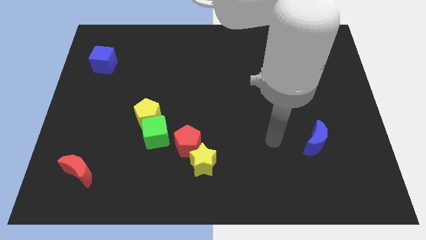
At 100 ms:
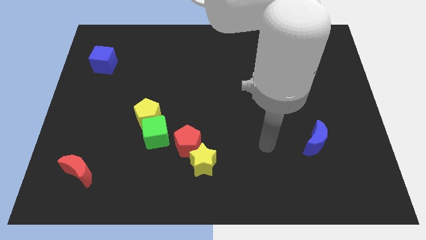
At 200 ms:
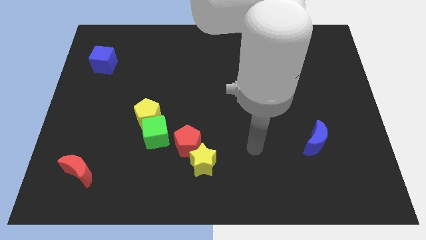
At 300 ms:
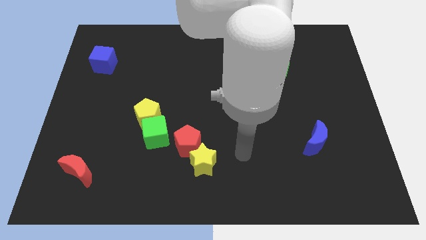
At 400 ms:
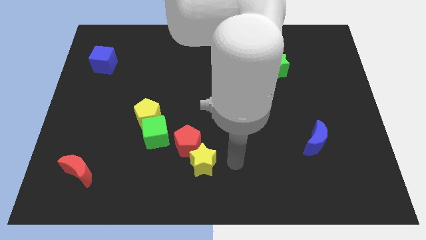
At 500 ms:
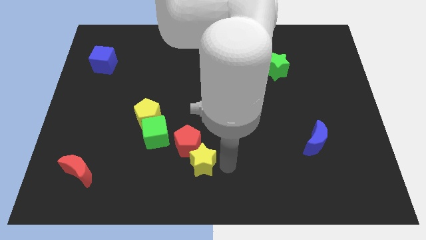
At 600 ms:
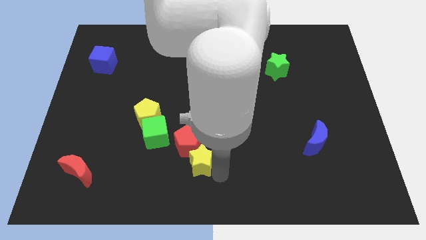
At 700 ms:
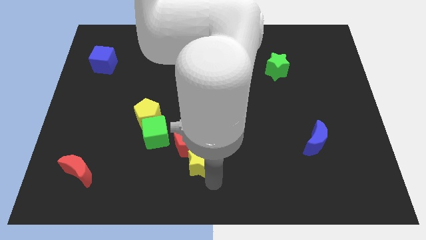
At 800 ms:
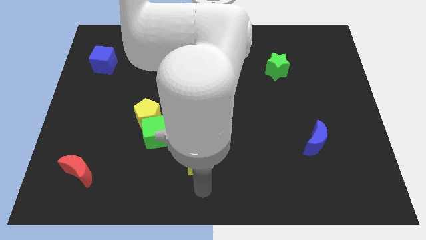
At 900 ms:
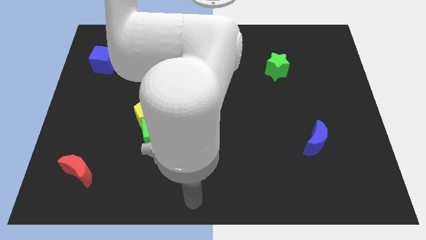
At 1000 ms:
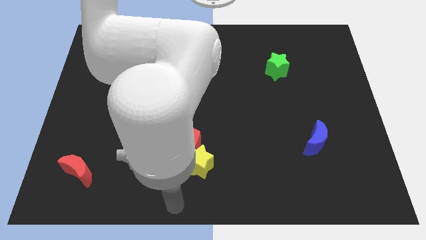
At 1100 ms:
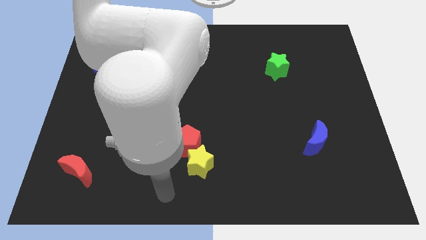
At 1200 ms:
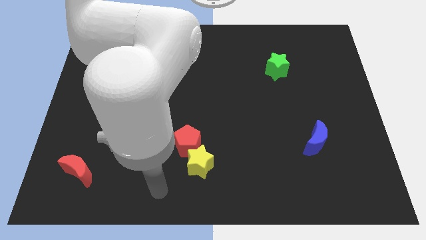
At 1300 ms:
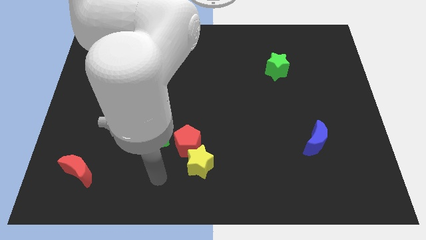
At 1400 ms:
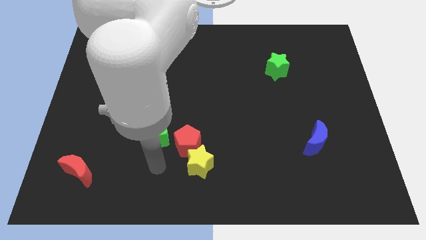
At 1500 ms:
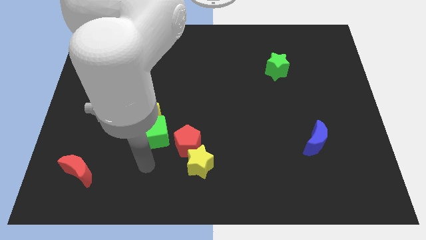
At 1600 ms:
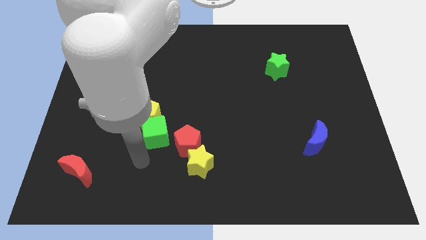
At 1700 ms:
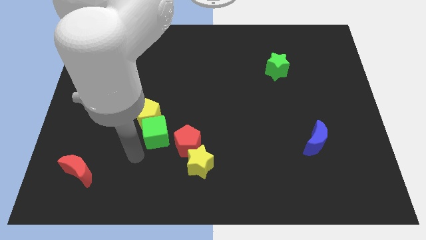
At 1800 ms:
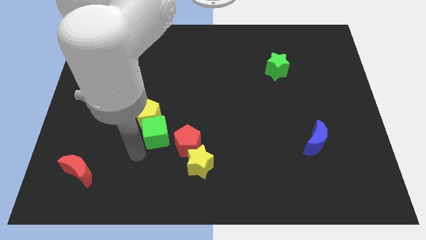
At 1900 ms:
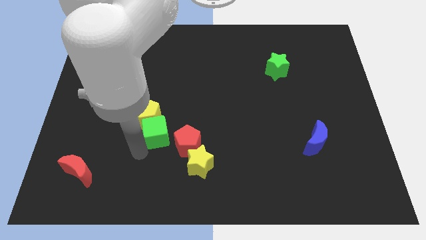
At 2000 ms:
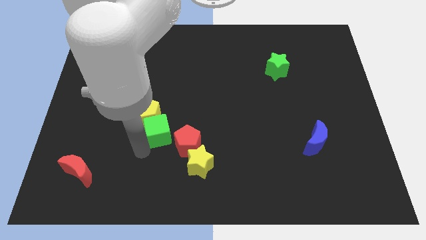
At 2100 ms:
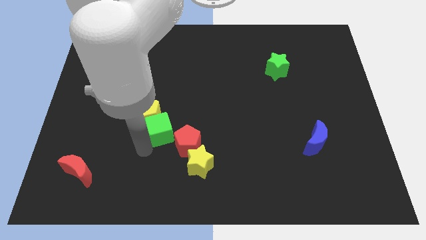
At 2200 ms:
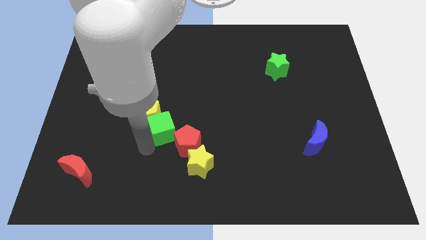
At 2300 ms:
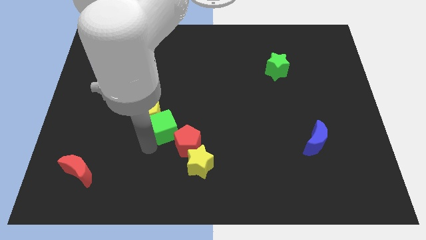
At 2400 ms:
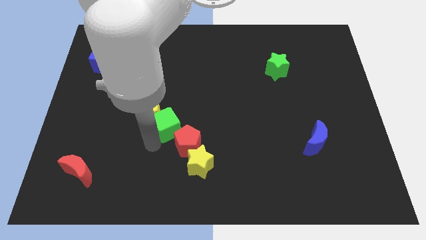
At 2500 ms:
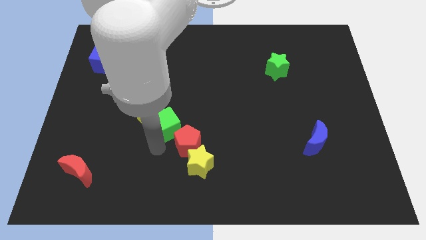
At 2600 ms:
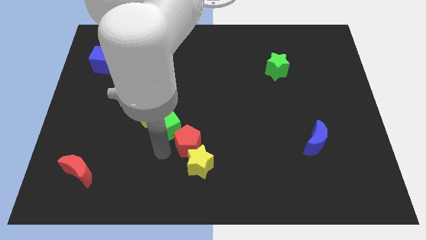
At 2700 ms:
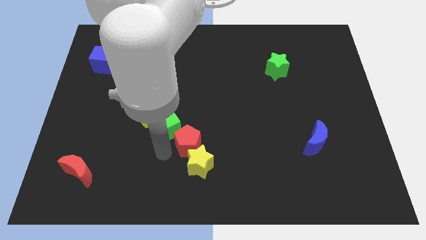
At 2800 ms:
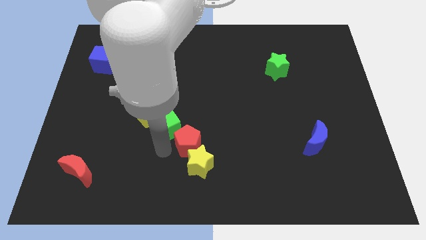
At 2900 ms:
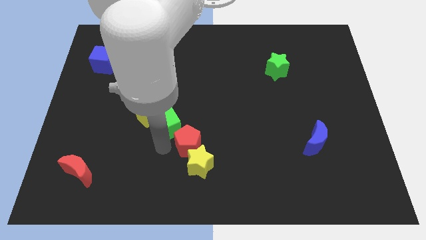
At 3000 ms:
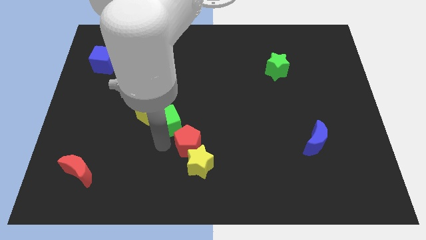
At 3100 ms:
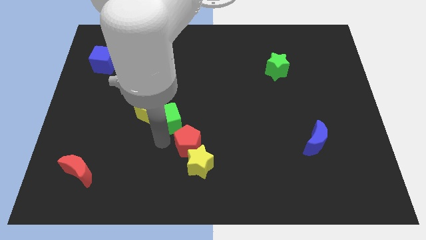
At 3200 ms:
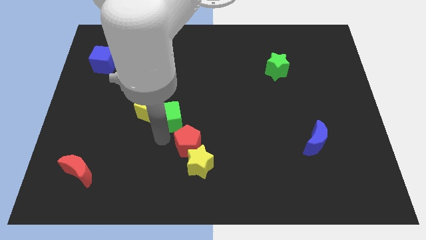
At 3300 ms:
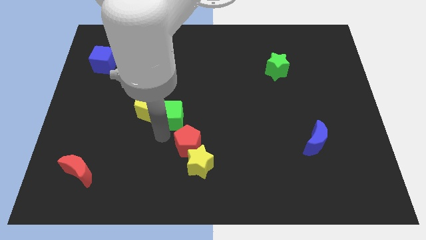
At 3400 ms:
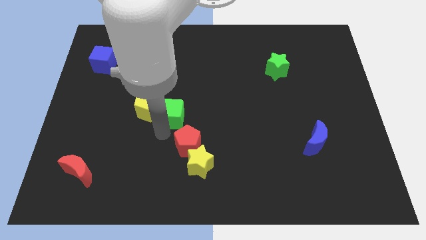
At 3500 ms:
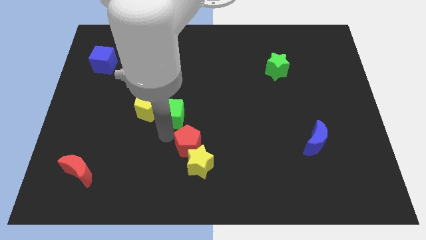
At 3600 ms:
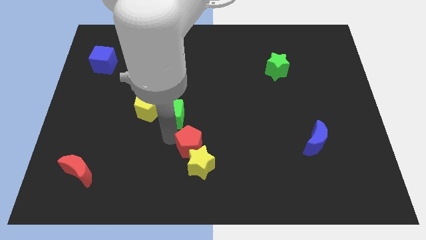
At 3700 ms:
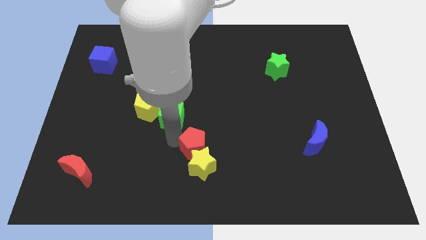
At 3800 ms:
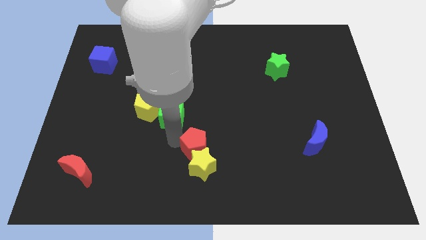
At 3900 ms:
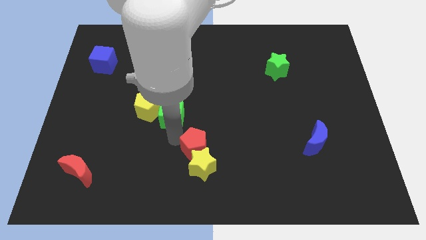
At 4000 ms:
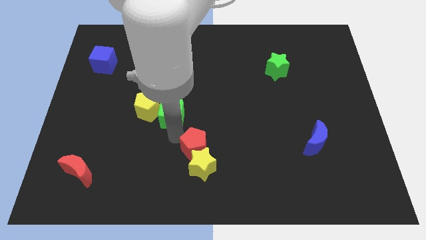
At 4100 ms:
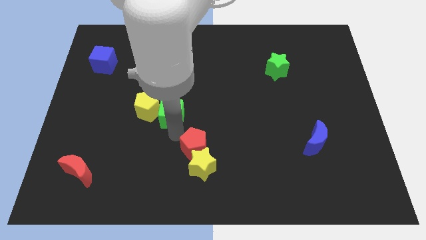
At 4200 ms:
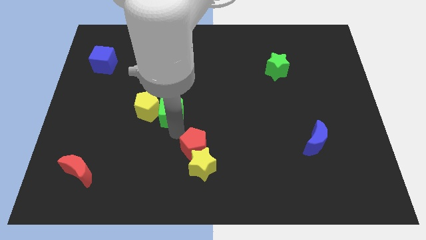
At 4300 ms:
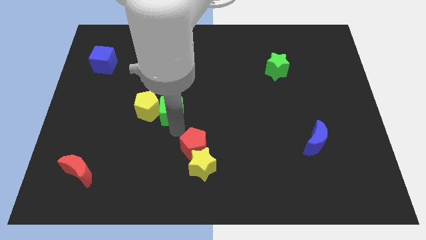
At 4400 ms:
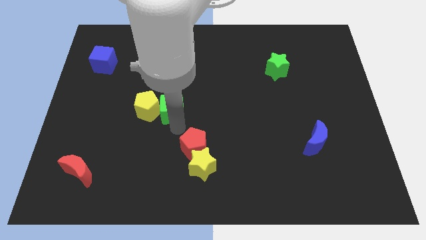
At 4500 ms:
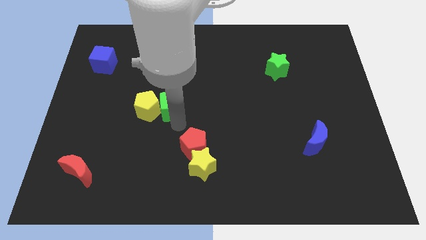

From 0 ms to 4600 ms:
move the green cube upwards a bit

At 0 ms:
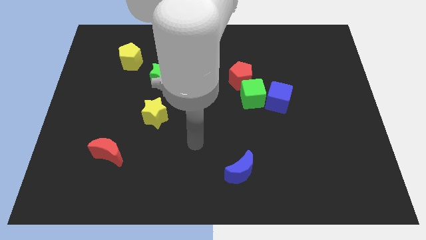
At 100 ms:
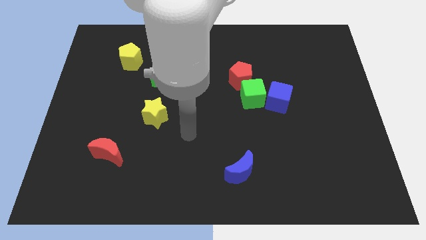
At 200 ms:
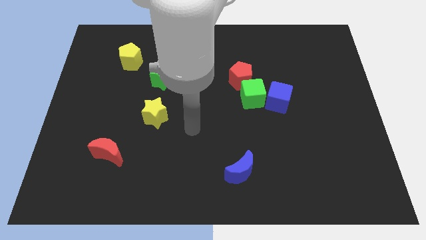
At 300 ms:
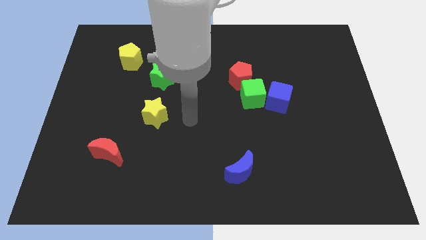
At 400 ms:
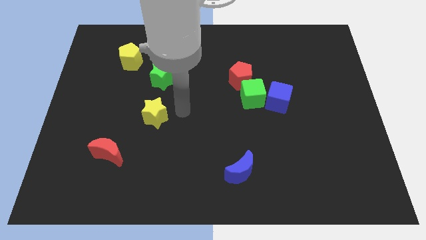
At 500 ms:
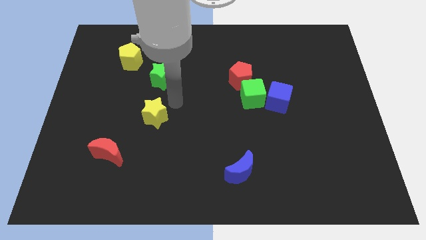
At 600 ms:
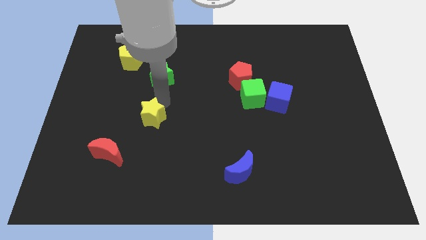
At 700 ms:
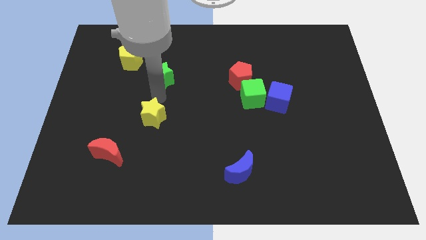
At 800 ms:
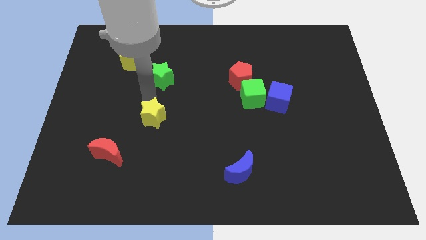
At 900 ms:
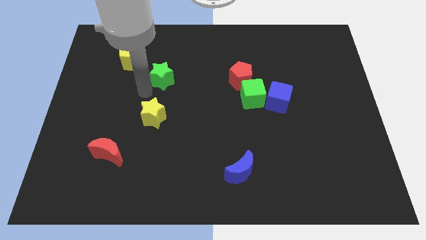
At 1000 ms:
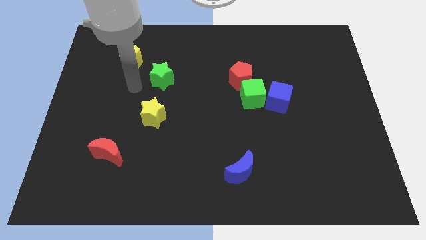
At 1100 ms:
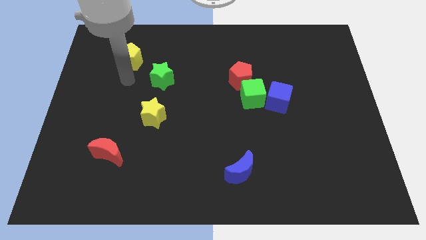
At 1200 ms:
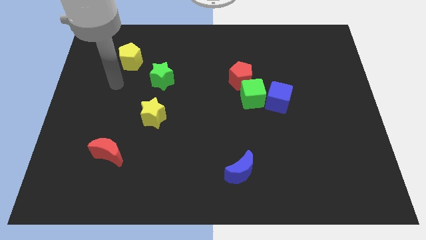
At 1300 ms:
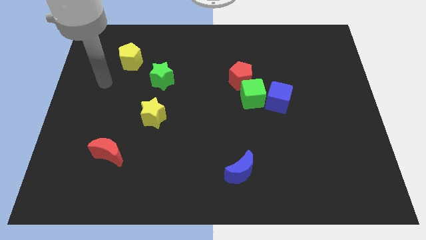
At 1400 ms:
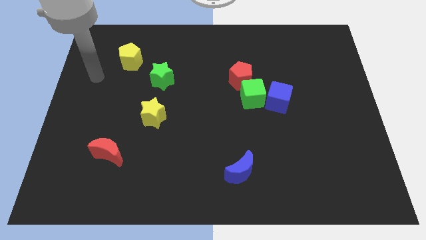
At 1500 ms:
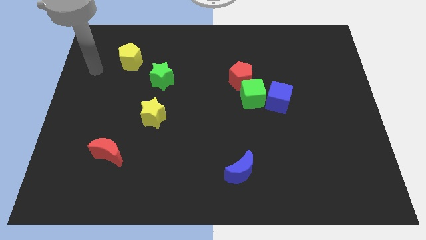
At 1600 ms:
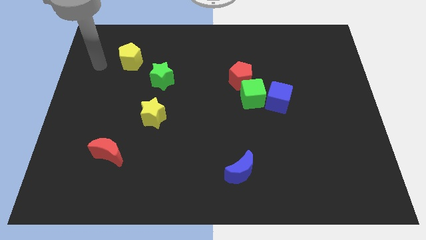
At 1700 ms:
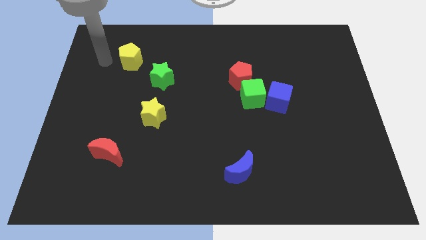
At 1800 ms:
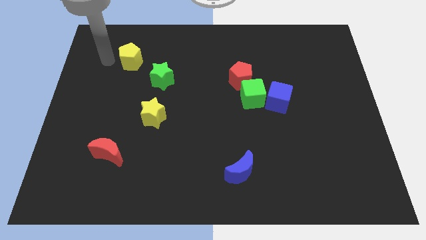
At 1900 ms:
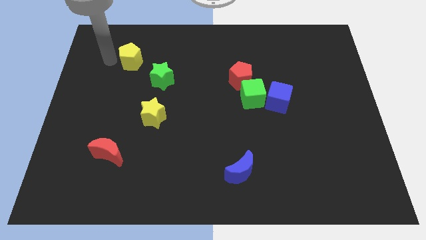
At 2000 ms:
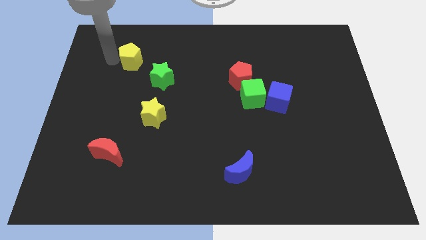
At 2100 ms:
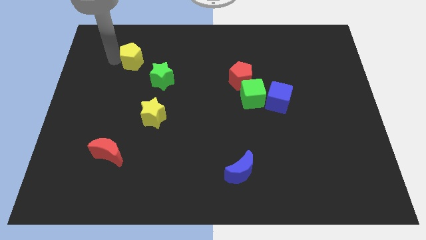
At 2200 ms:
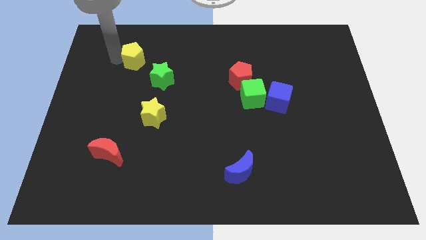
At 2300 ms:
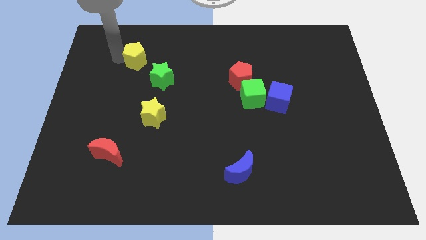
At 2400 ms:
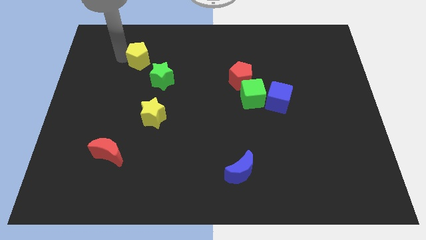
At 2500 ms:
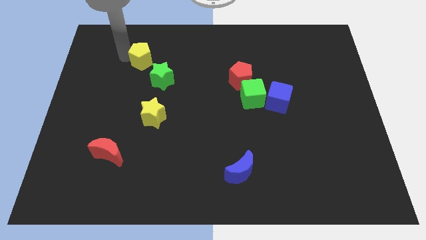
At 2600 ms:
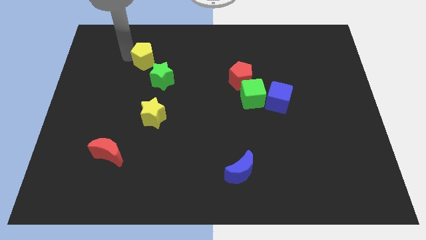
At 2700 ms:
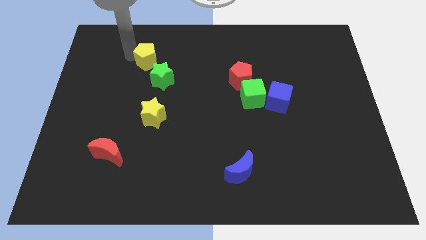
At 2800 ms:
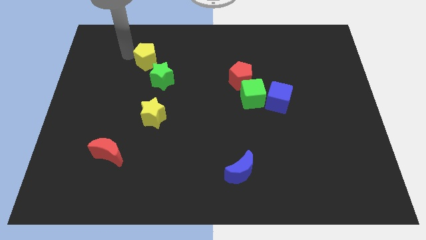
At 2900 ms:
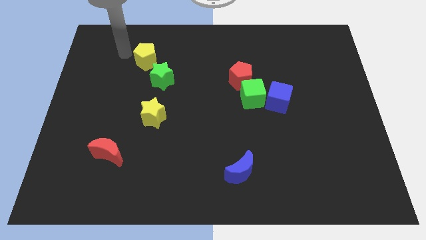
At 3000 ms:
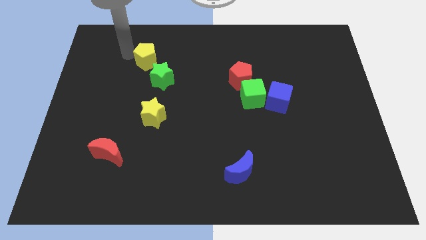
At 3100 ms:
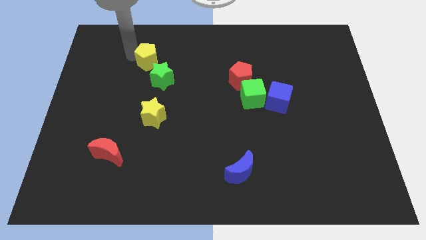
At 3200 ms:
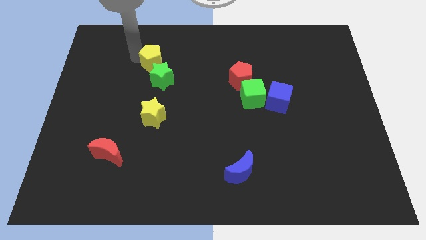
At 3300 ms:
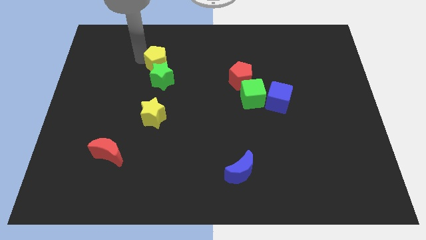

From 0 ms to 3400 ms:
move the yellow pentagon a bit to the right

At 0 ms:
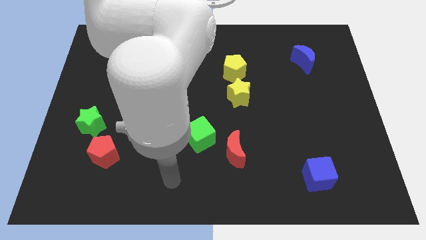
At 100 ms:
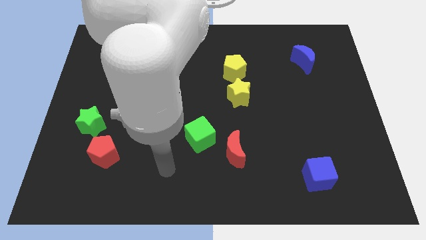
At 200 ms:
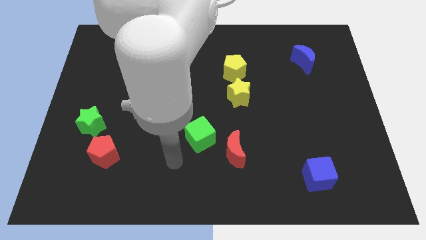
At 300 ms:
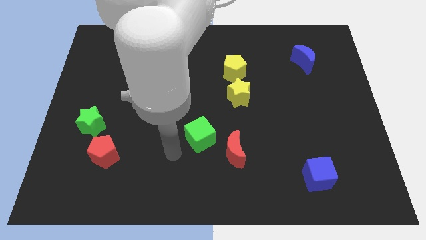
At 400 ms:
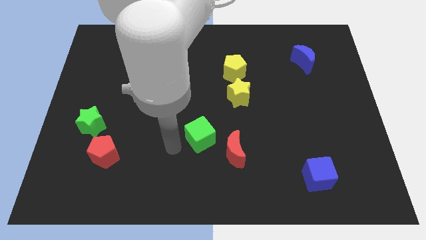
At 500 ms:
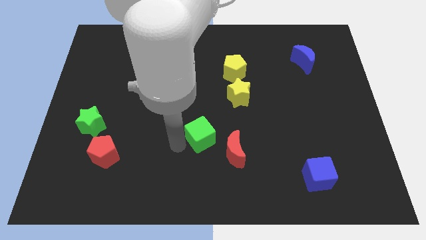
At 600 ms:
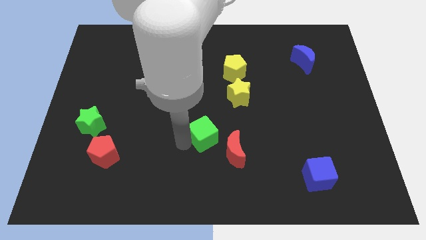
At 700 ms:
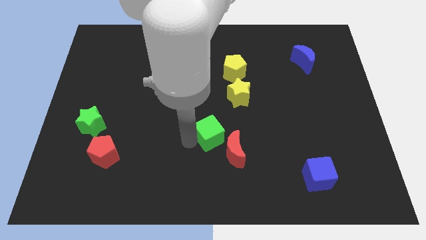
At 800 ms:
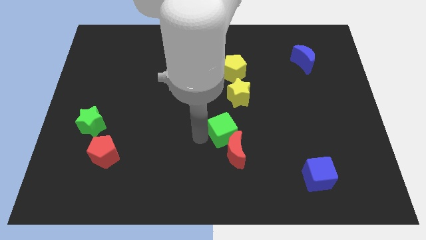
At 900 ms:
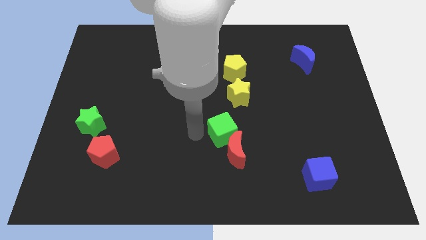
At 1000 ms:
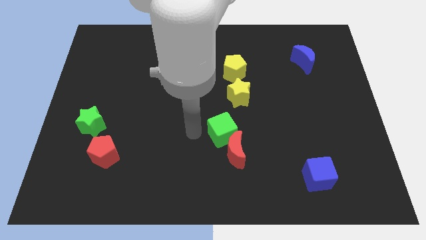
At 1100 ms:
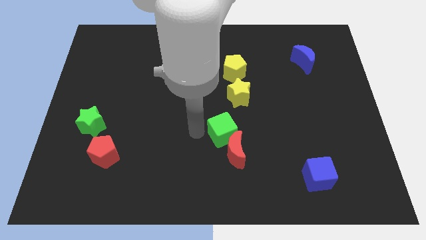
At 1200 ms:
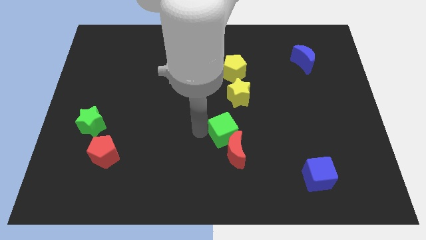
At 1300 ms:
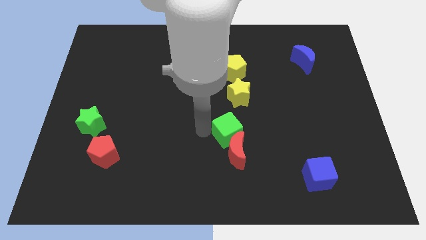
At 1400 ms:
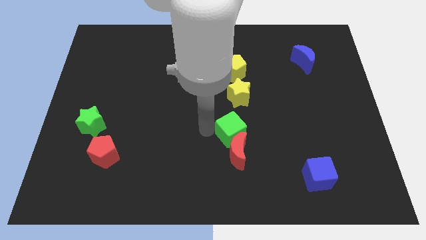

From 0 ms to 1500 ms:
move the green cube slightly to the right
